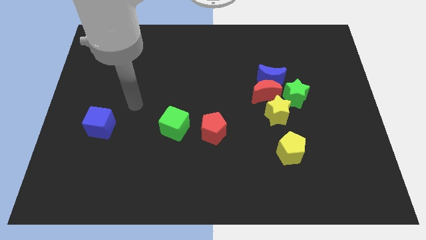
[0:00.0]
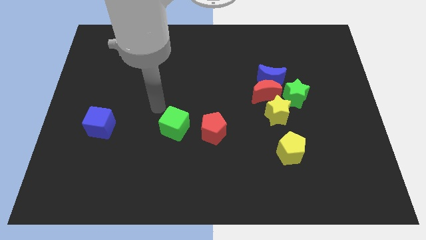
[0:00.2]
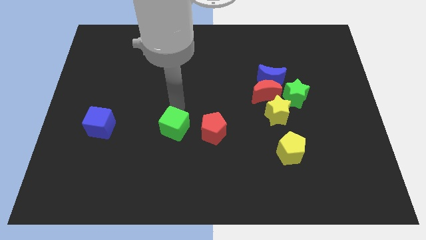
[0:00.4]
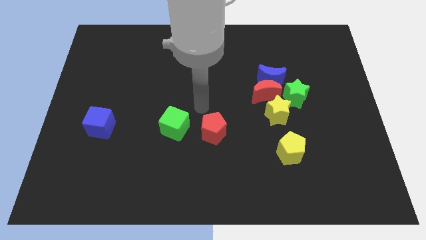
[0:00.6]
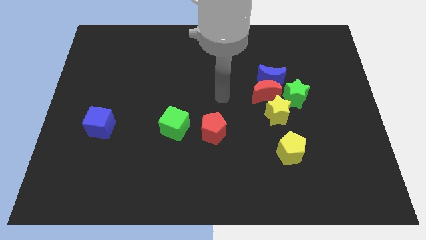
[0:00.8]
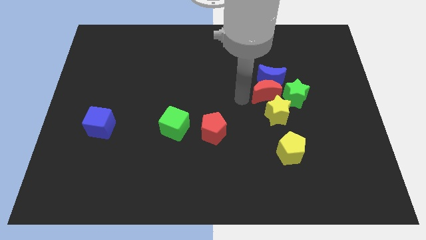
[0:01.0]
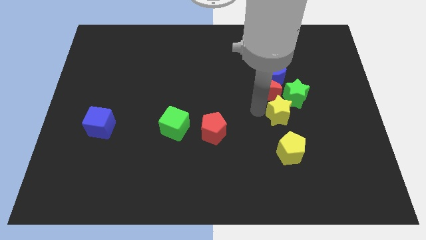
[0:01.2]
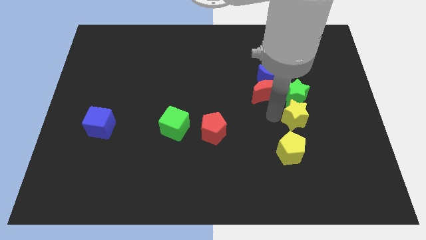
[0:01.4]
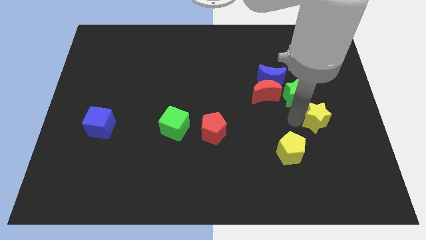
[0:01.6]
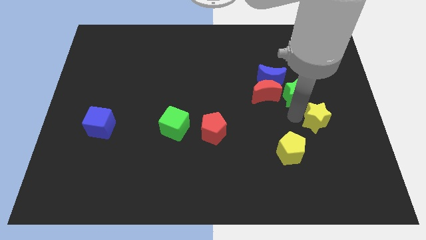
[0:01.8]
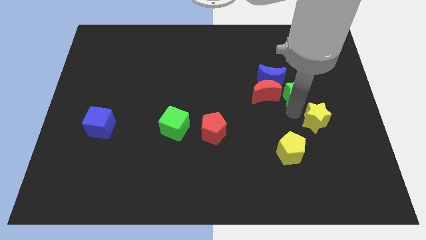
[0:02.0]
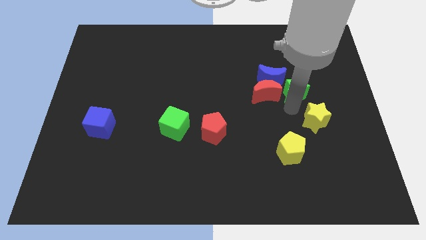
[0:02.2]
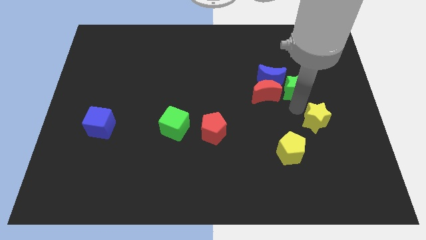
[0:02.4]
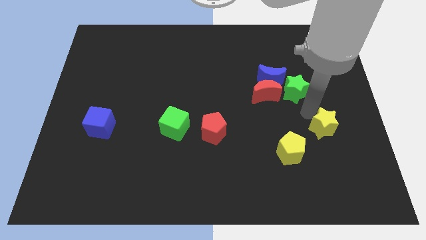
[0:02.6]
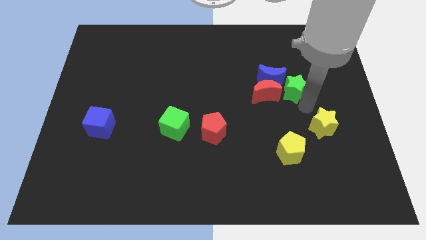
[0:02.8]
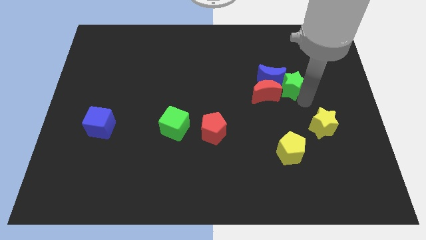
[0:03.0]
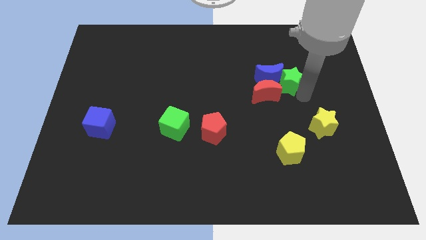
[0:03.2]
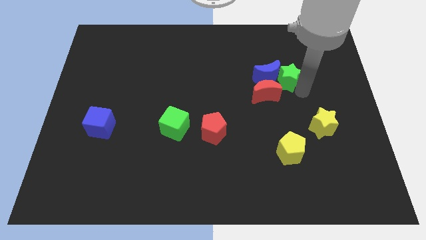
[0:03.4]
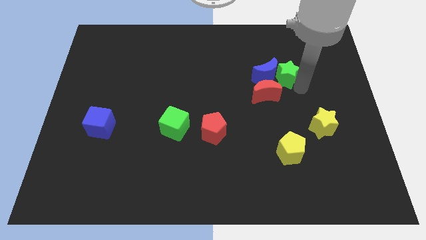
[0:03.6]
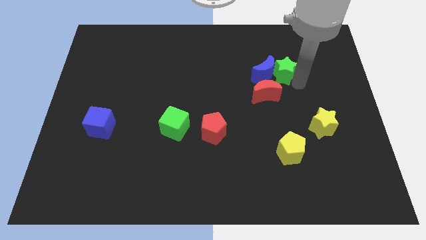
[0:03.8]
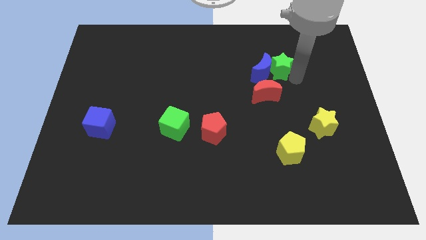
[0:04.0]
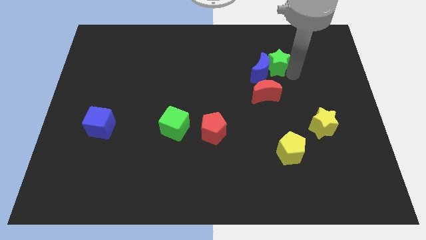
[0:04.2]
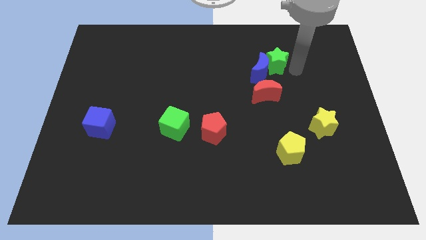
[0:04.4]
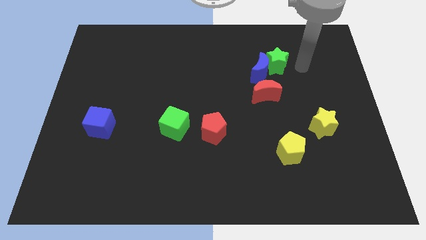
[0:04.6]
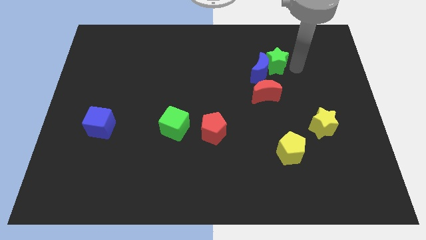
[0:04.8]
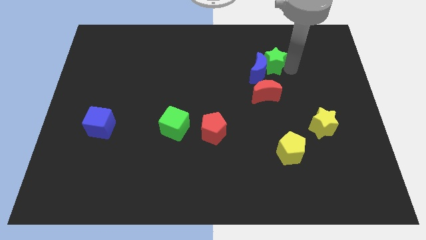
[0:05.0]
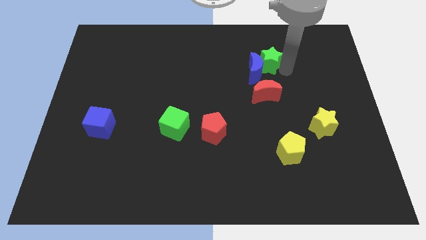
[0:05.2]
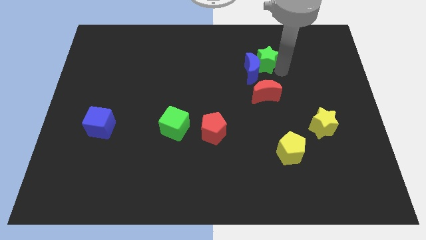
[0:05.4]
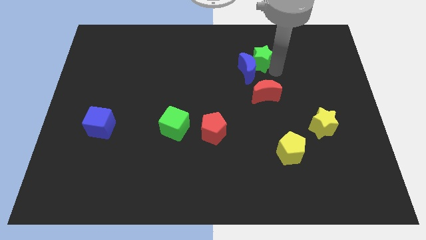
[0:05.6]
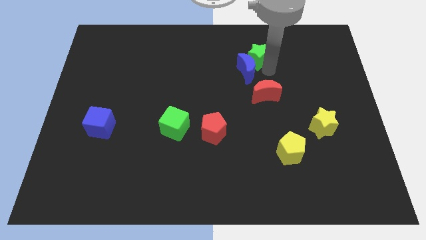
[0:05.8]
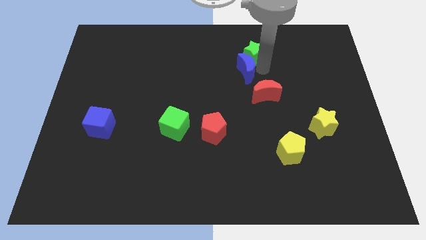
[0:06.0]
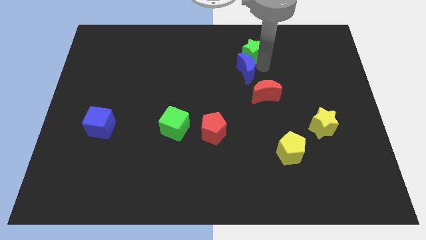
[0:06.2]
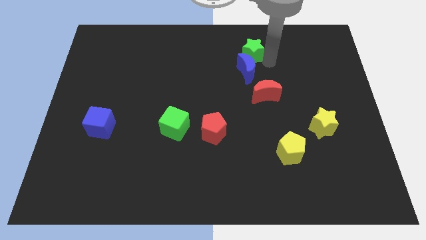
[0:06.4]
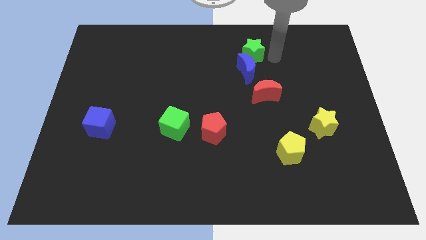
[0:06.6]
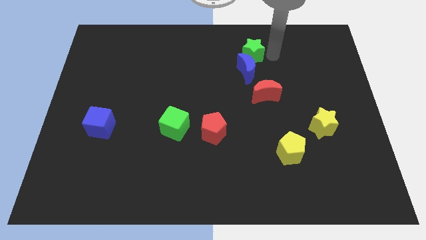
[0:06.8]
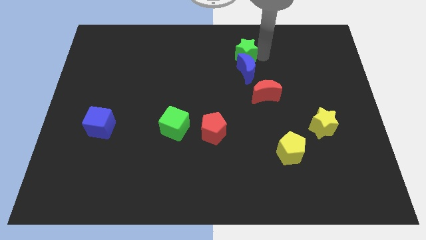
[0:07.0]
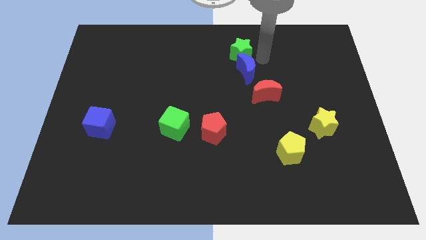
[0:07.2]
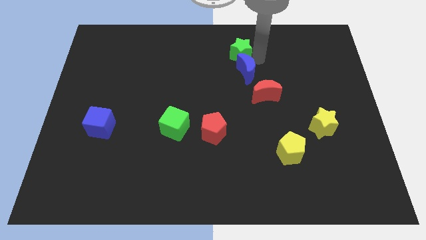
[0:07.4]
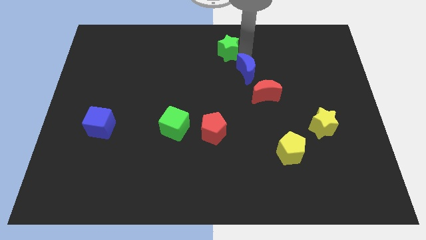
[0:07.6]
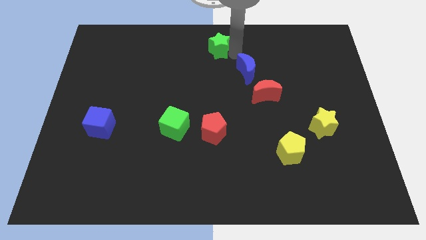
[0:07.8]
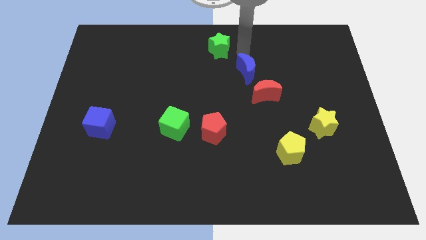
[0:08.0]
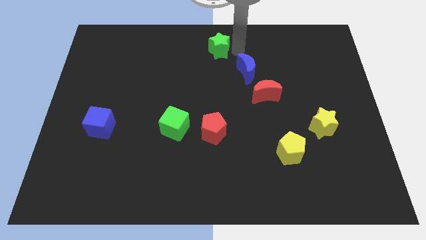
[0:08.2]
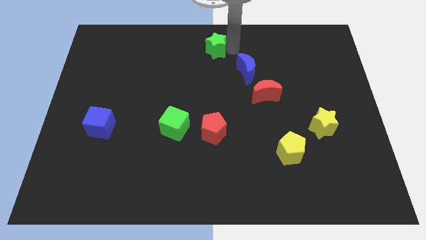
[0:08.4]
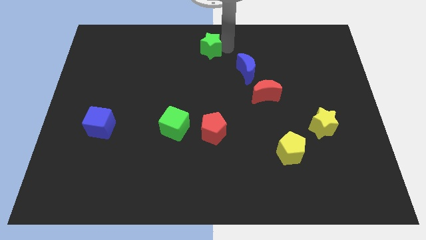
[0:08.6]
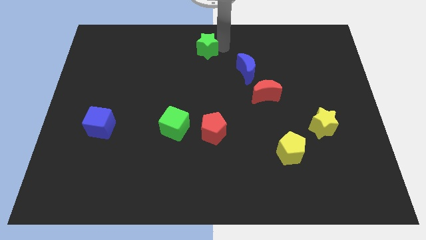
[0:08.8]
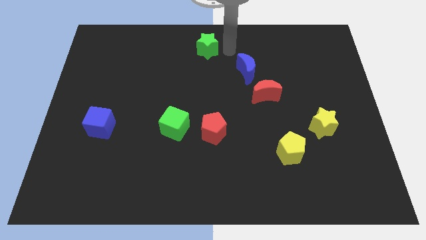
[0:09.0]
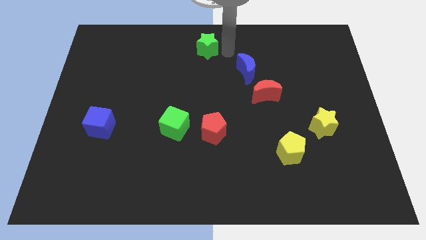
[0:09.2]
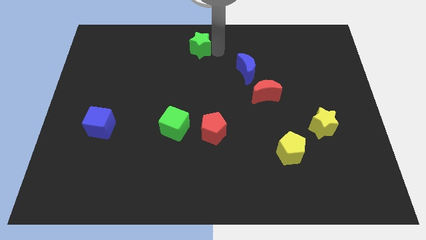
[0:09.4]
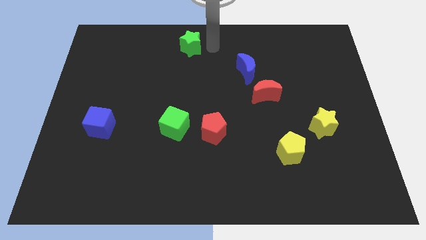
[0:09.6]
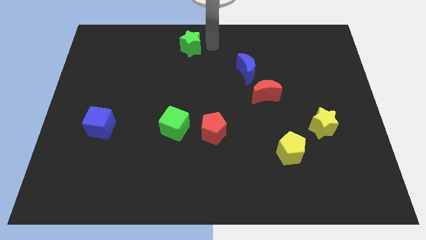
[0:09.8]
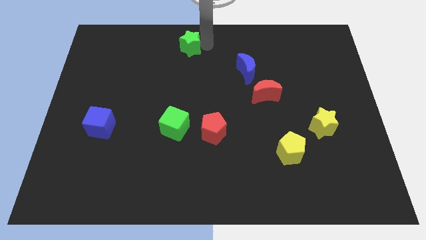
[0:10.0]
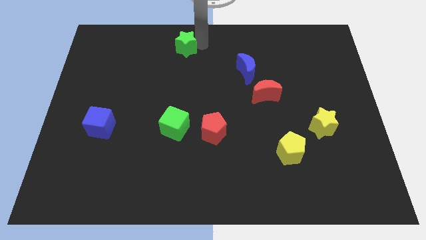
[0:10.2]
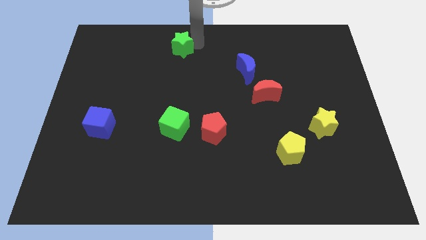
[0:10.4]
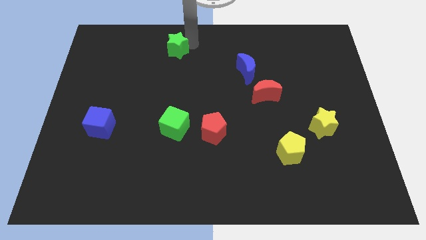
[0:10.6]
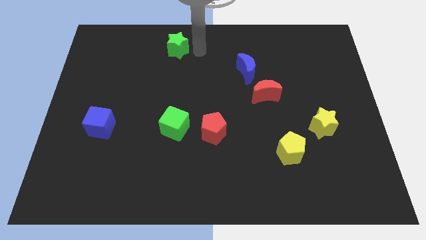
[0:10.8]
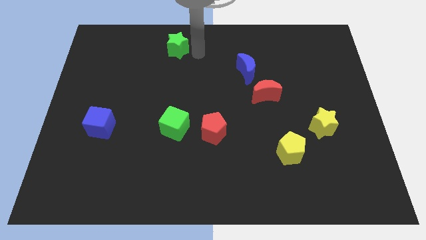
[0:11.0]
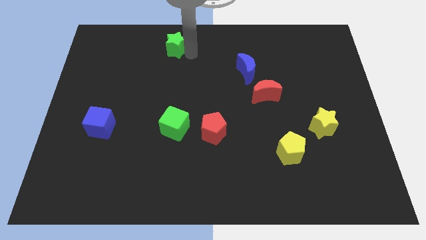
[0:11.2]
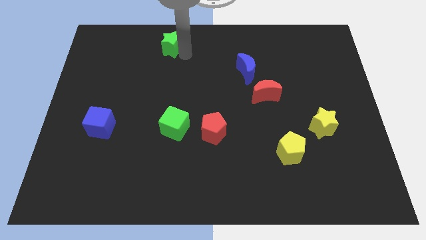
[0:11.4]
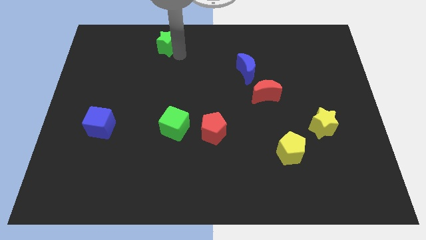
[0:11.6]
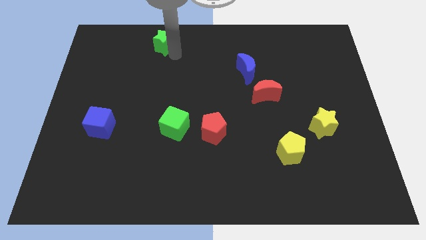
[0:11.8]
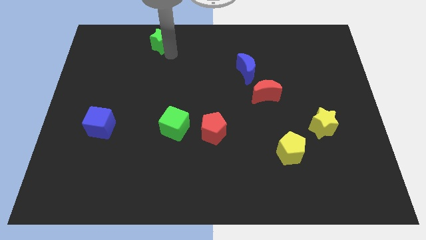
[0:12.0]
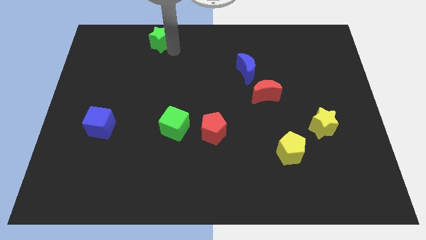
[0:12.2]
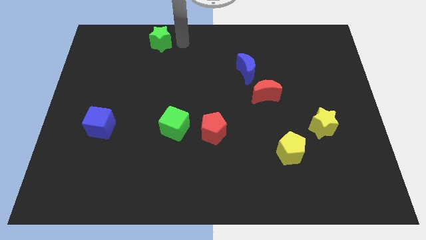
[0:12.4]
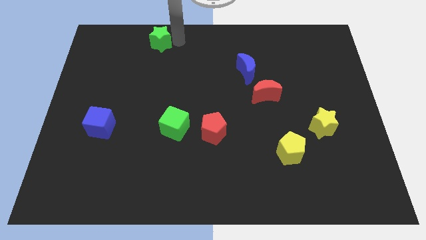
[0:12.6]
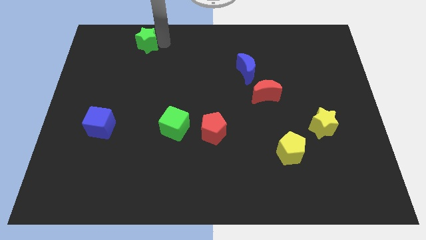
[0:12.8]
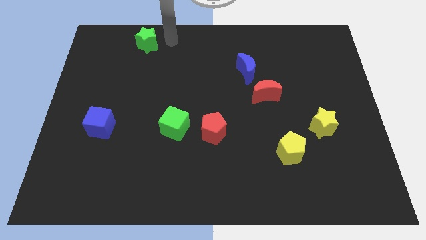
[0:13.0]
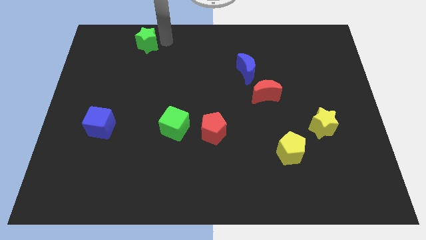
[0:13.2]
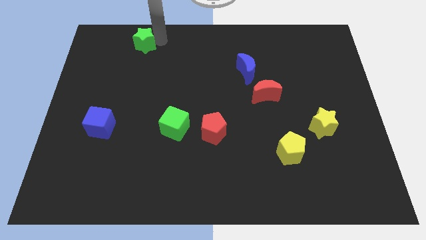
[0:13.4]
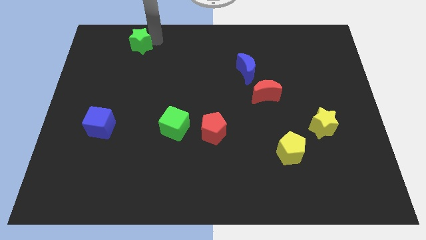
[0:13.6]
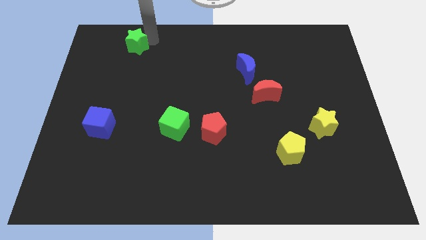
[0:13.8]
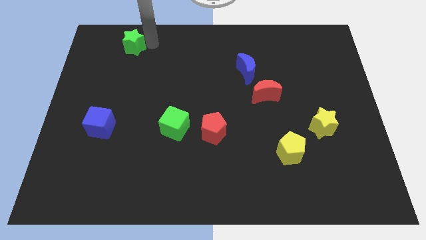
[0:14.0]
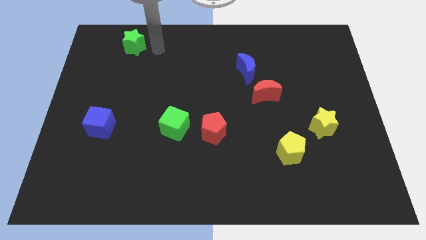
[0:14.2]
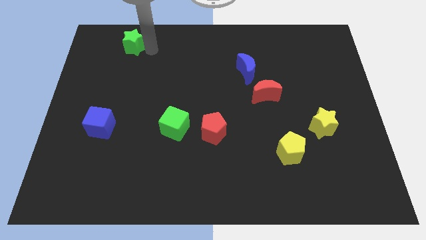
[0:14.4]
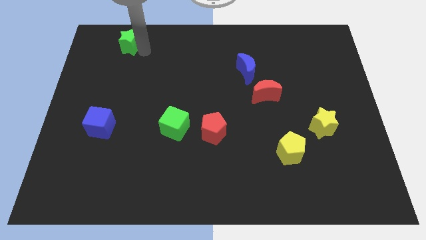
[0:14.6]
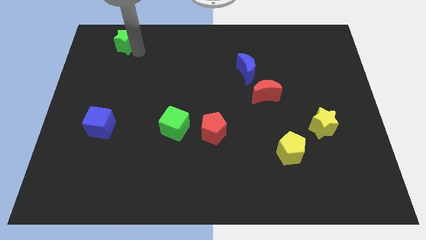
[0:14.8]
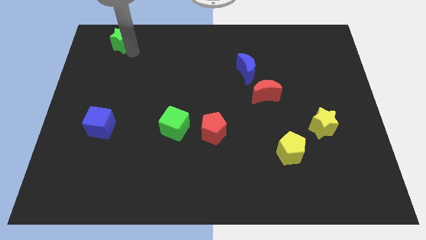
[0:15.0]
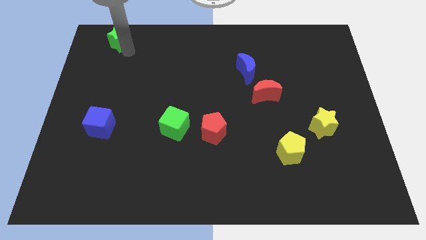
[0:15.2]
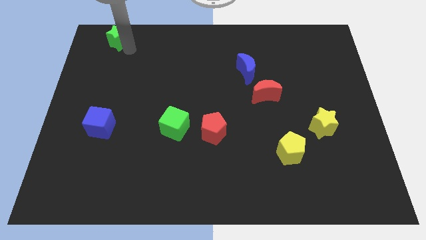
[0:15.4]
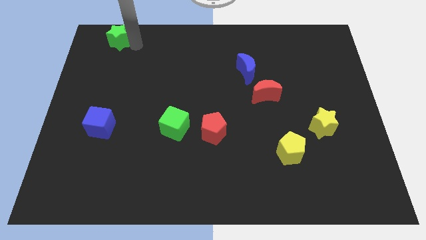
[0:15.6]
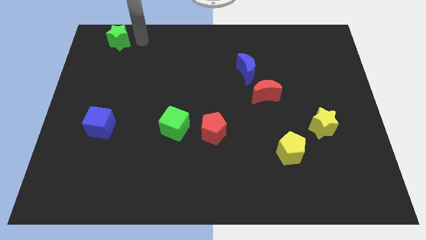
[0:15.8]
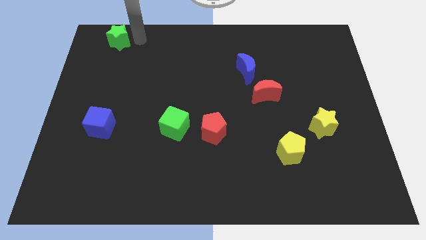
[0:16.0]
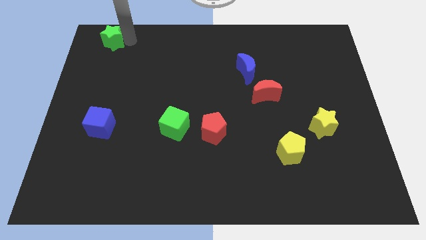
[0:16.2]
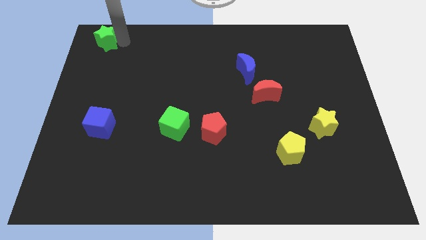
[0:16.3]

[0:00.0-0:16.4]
slide the green star to the top left corner
